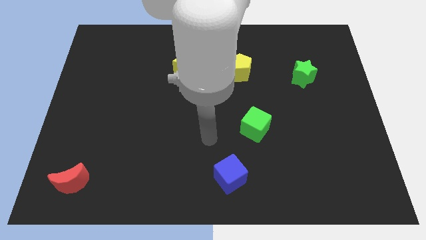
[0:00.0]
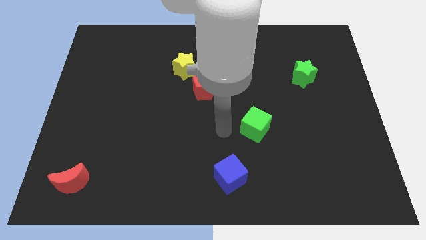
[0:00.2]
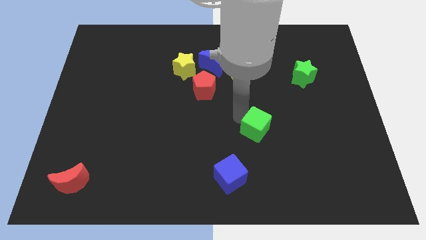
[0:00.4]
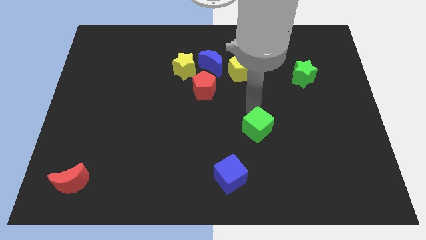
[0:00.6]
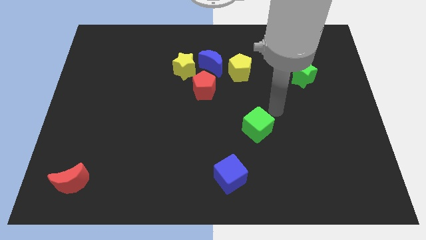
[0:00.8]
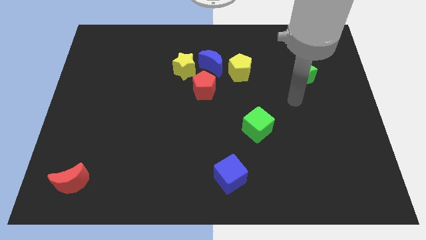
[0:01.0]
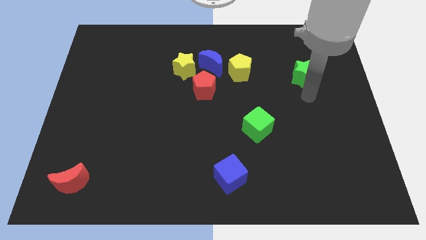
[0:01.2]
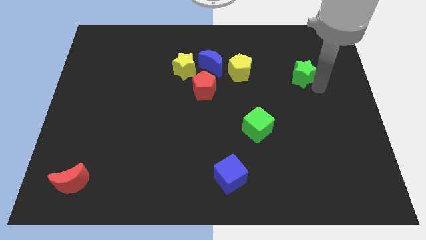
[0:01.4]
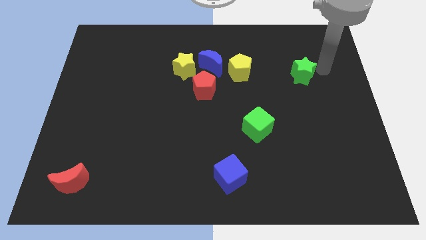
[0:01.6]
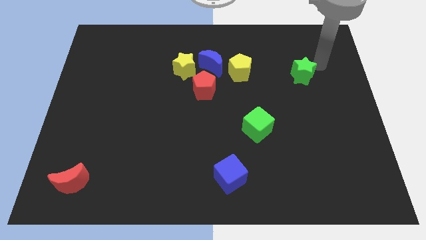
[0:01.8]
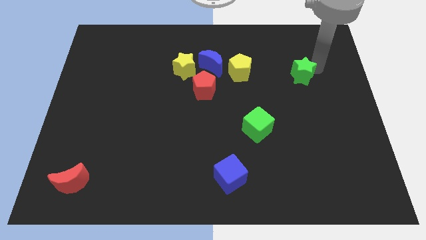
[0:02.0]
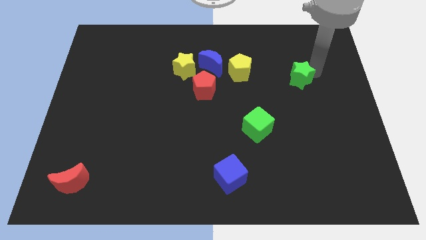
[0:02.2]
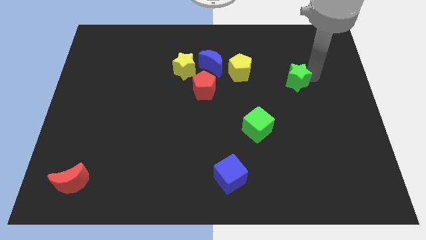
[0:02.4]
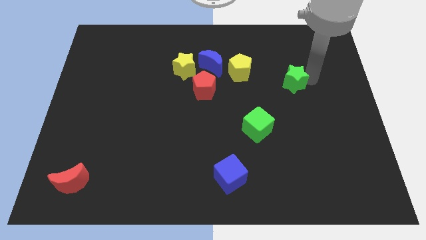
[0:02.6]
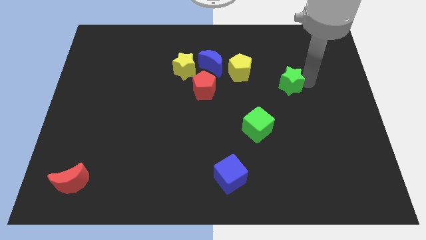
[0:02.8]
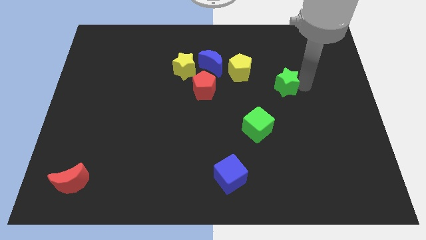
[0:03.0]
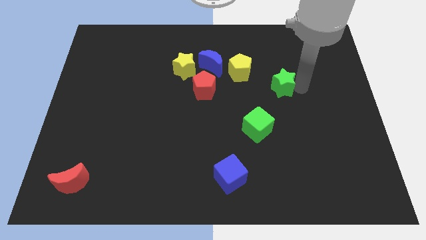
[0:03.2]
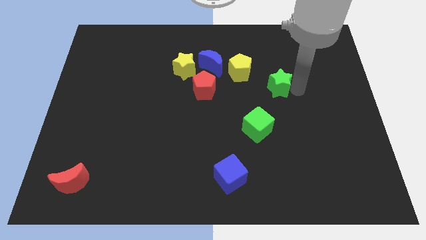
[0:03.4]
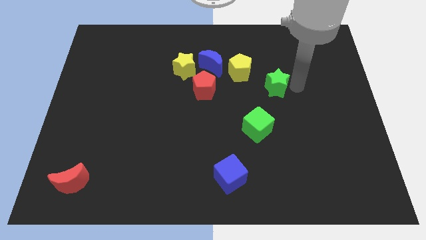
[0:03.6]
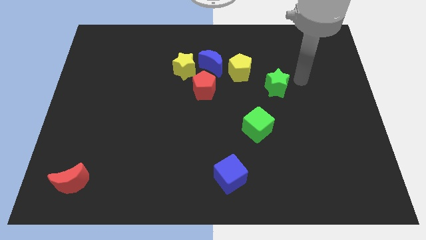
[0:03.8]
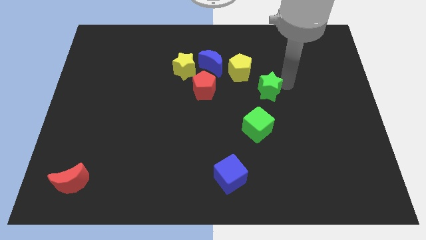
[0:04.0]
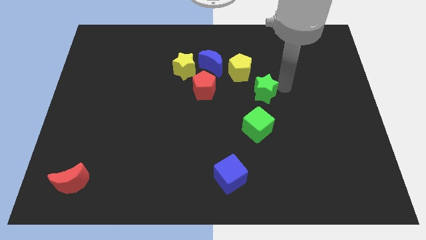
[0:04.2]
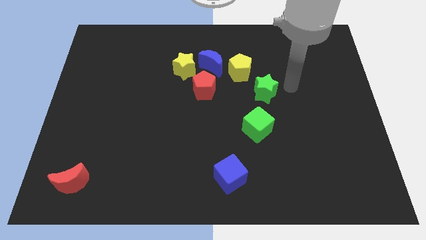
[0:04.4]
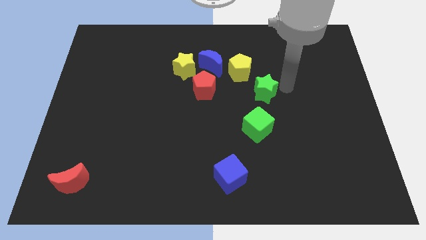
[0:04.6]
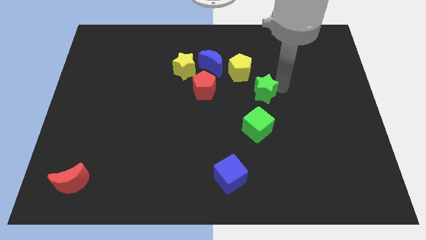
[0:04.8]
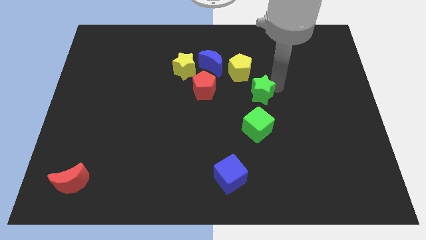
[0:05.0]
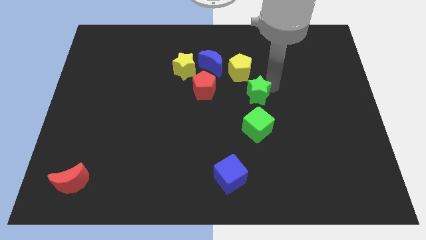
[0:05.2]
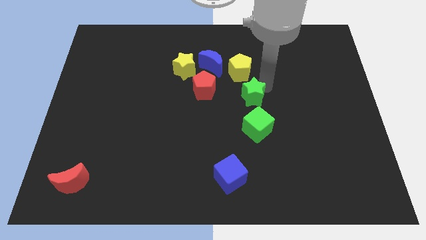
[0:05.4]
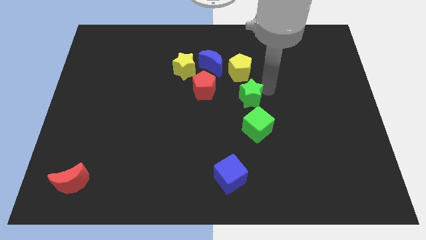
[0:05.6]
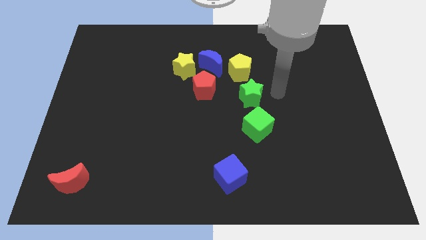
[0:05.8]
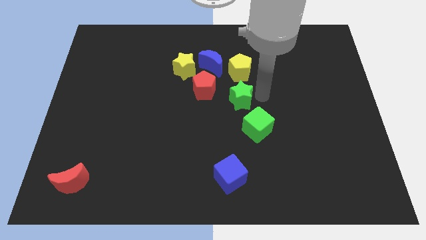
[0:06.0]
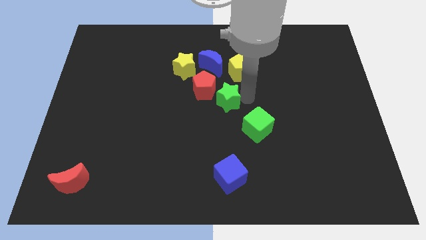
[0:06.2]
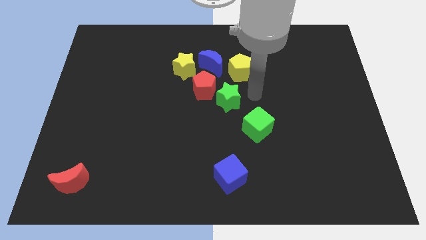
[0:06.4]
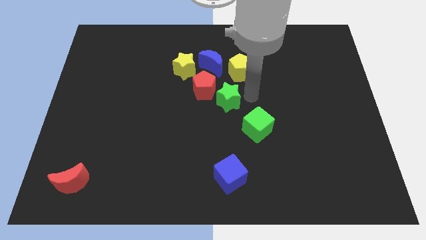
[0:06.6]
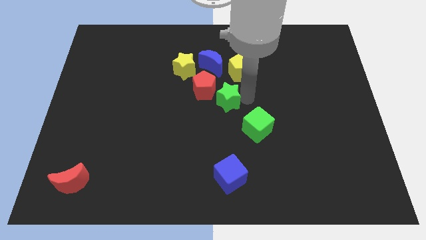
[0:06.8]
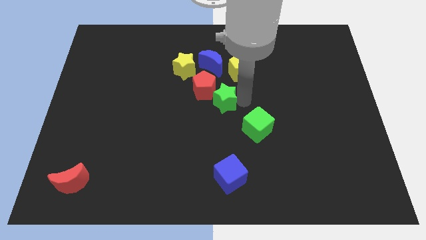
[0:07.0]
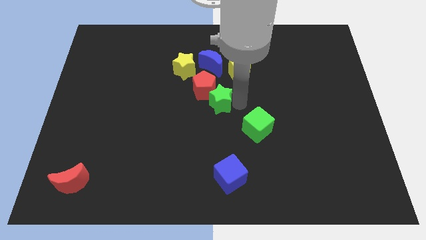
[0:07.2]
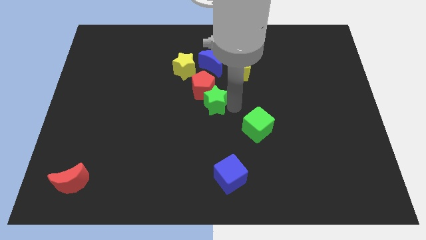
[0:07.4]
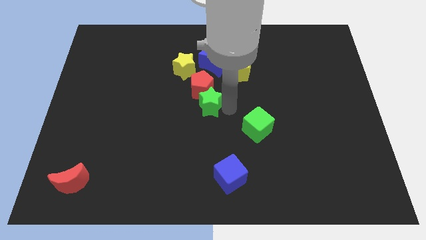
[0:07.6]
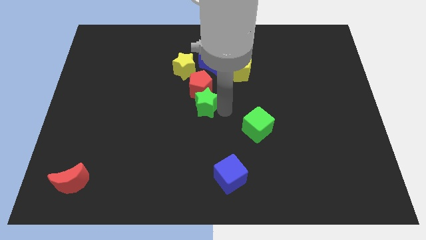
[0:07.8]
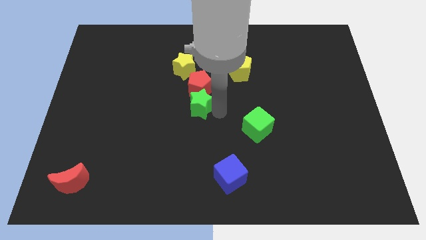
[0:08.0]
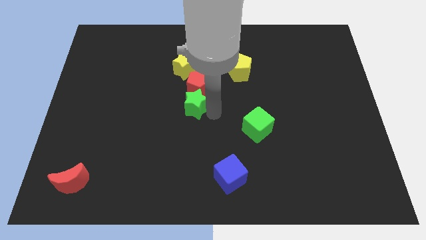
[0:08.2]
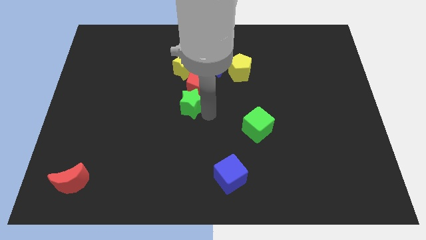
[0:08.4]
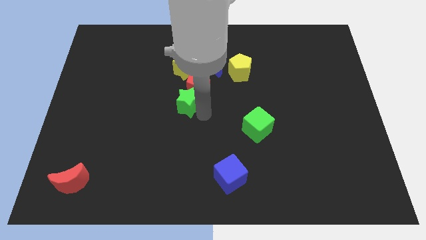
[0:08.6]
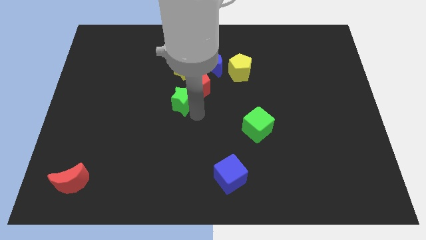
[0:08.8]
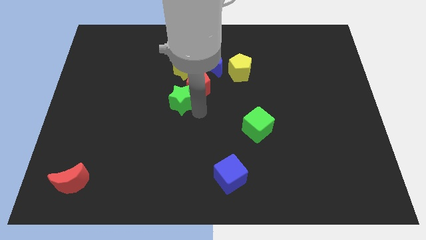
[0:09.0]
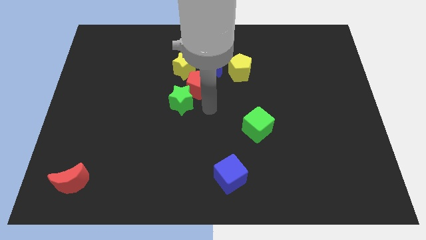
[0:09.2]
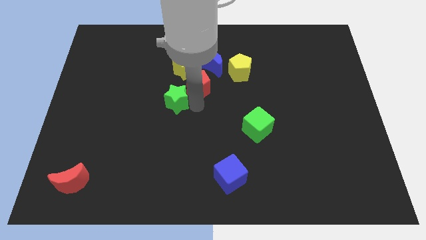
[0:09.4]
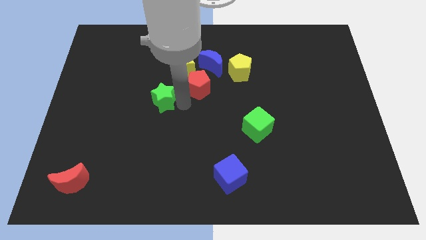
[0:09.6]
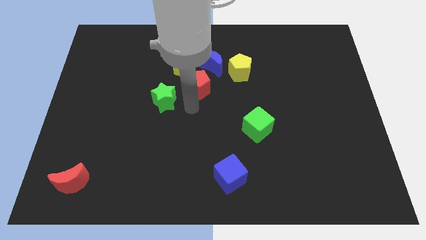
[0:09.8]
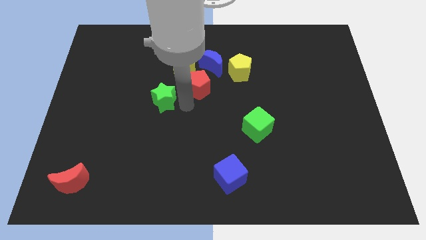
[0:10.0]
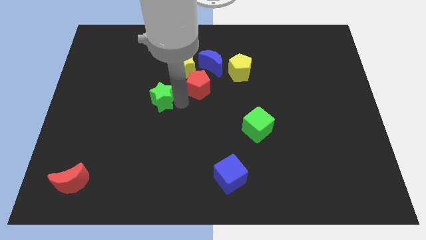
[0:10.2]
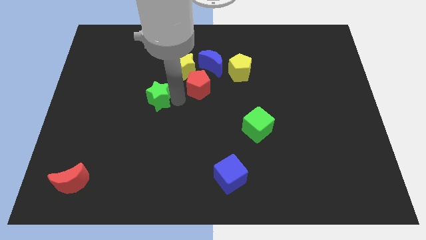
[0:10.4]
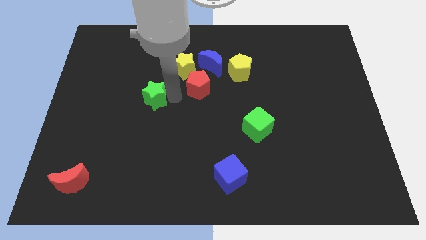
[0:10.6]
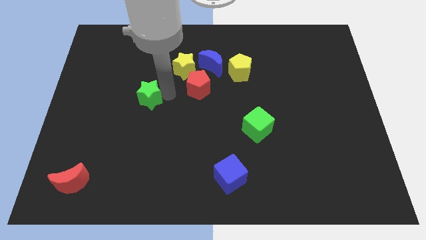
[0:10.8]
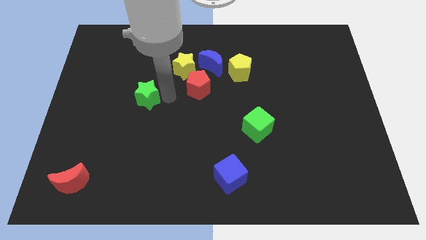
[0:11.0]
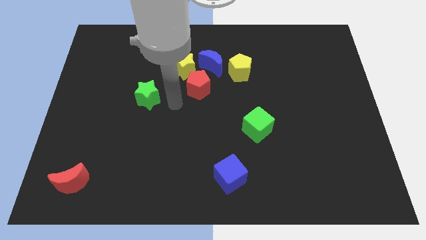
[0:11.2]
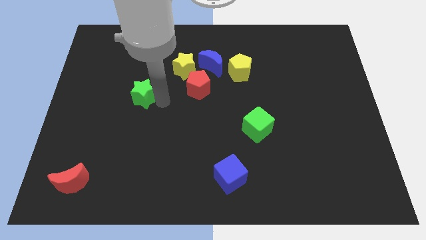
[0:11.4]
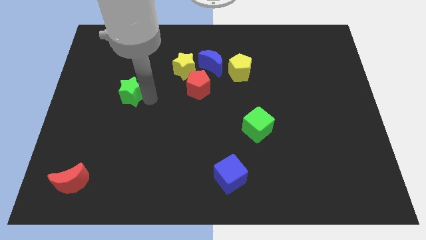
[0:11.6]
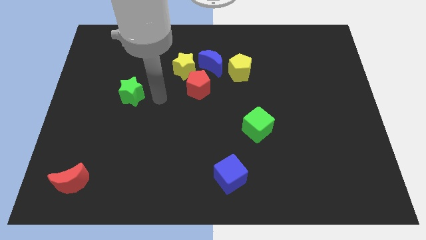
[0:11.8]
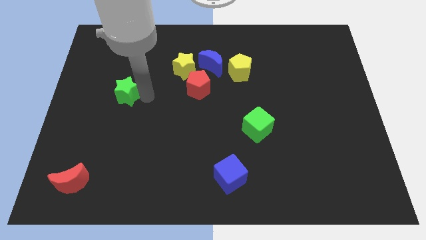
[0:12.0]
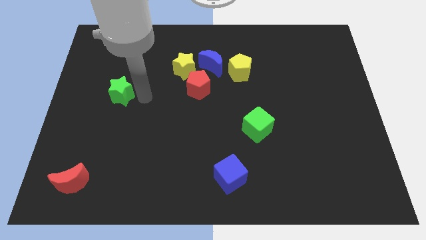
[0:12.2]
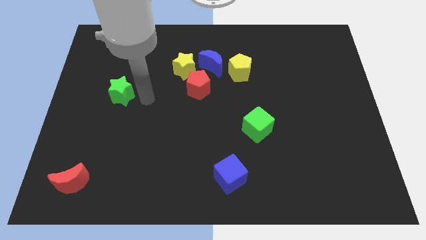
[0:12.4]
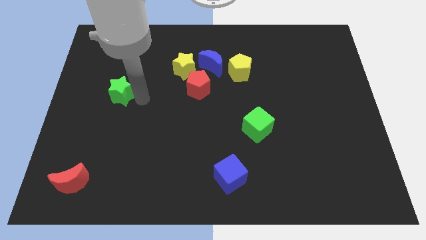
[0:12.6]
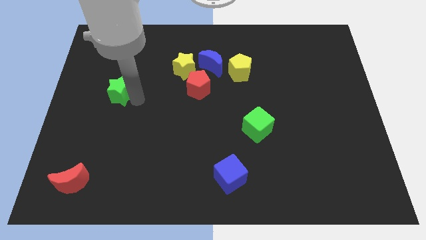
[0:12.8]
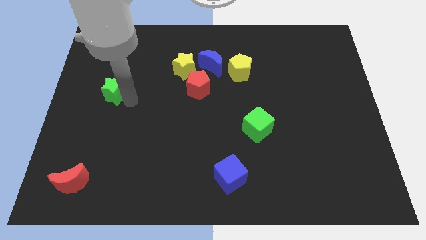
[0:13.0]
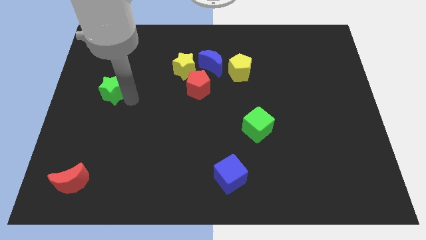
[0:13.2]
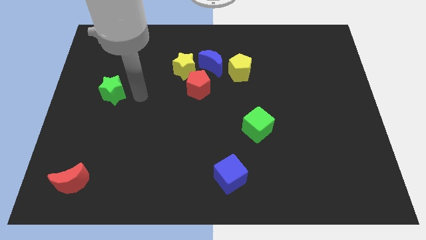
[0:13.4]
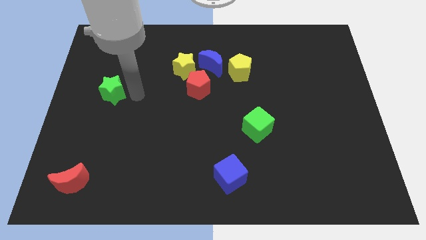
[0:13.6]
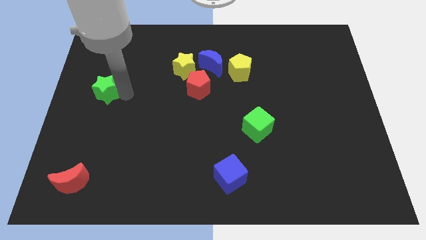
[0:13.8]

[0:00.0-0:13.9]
put the green star to the left side
